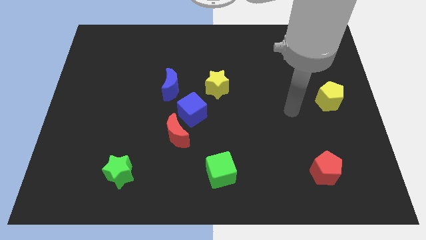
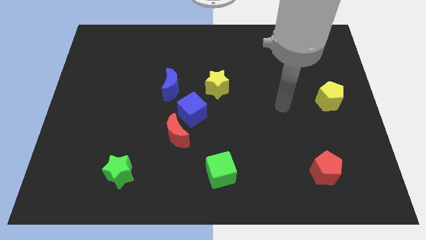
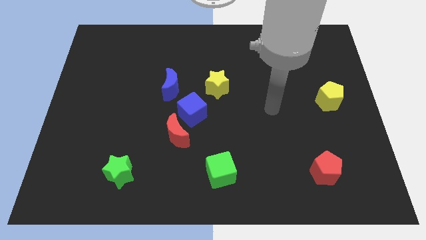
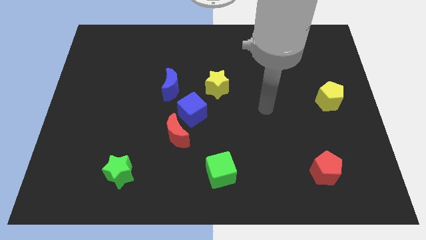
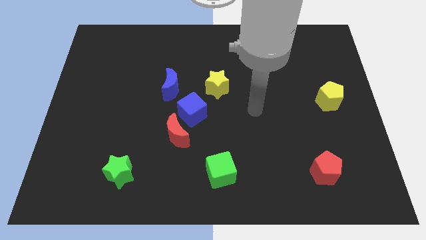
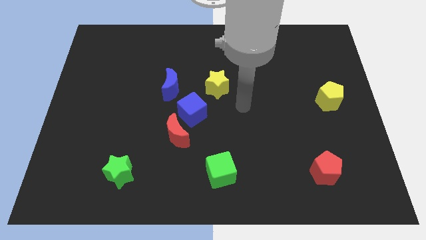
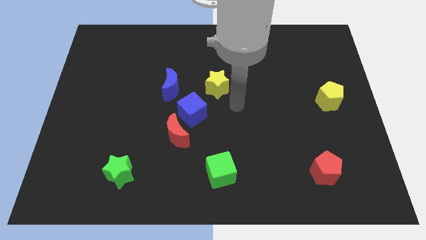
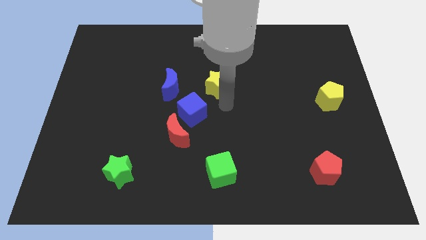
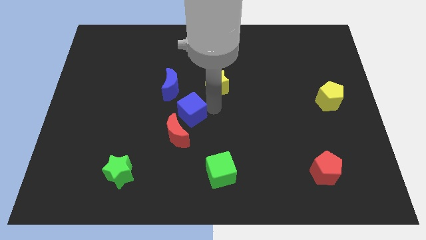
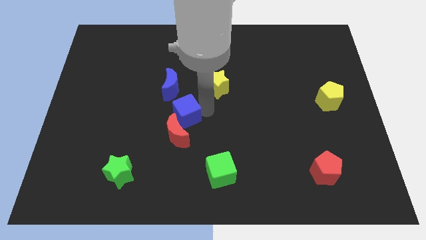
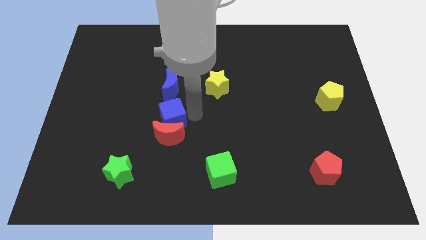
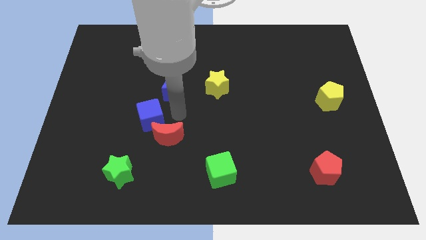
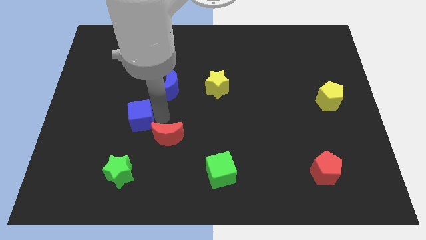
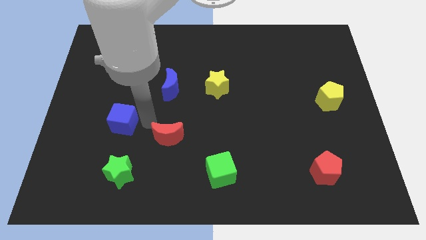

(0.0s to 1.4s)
move the red moon away from the blue cube

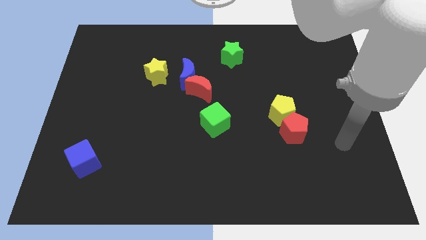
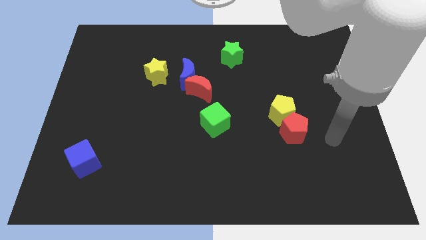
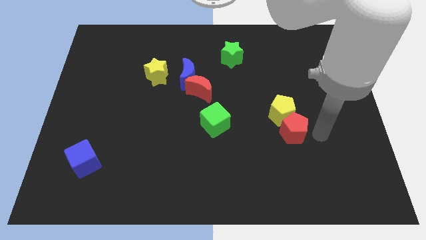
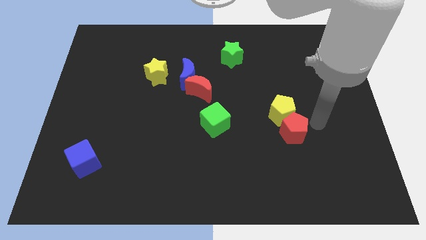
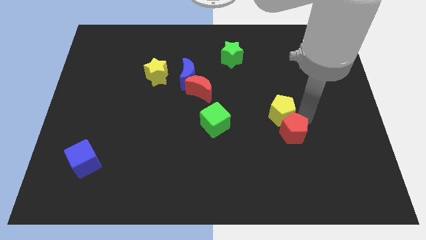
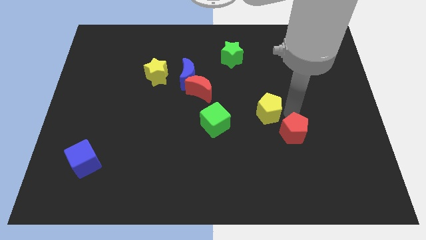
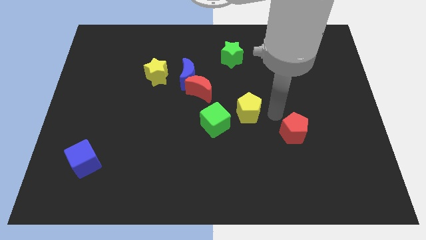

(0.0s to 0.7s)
move the red pentagon away from the yellow pentagon

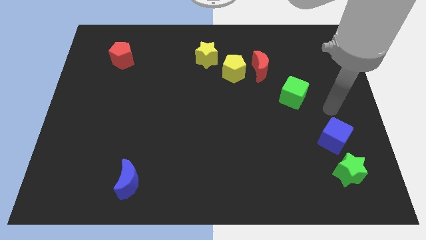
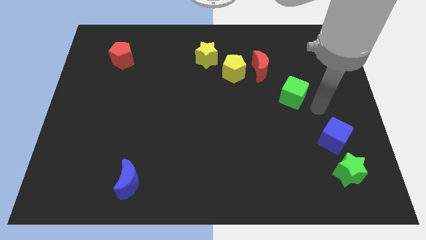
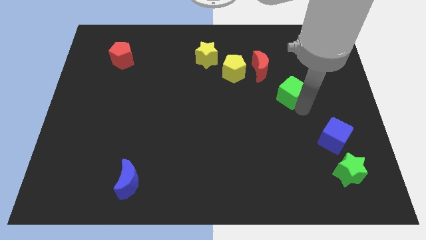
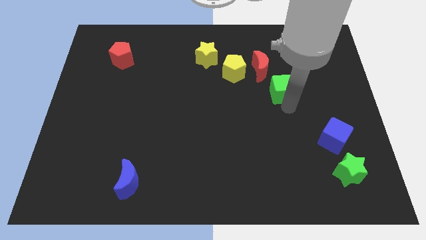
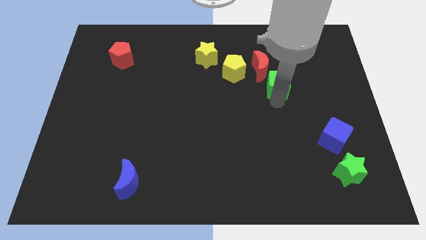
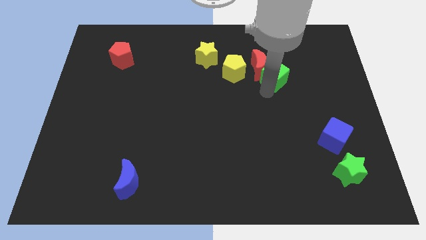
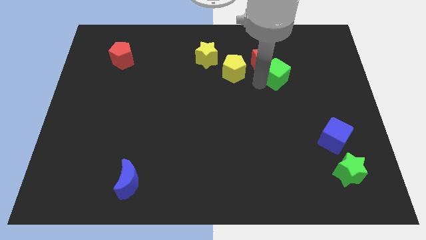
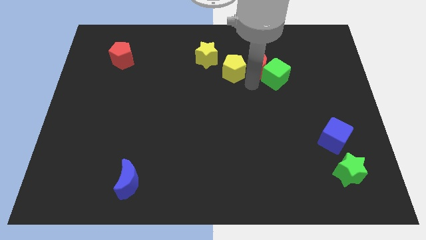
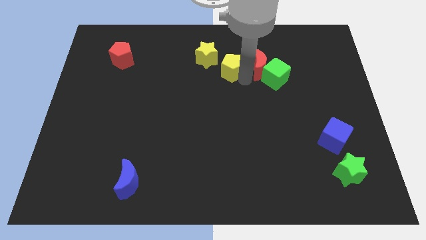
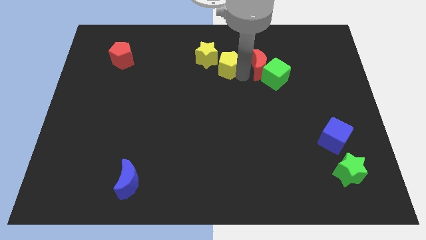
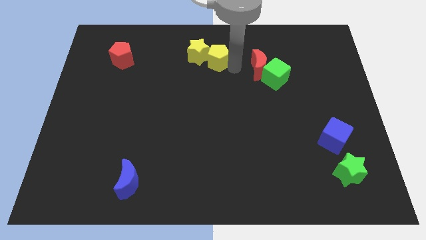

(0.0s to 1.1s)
move the red moon away from the yellow pentagon

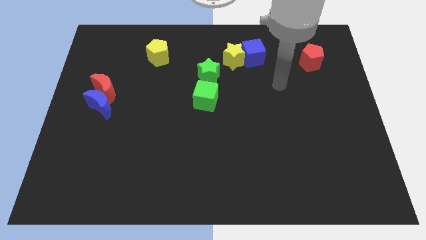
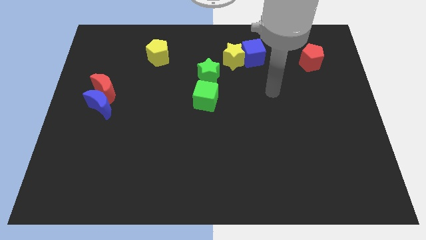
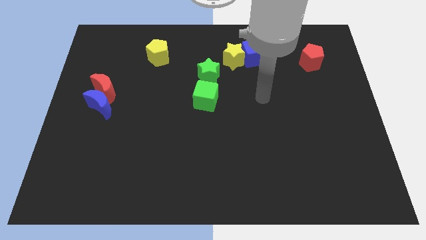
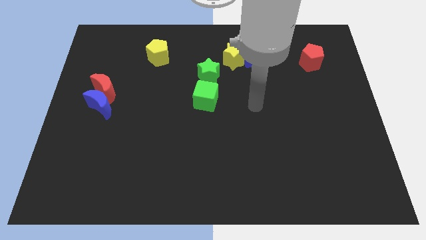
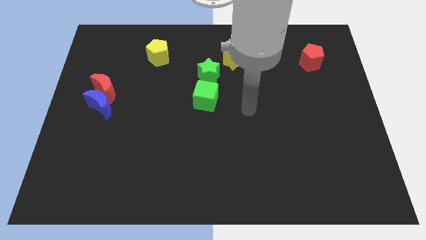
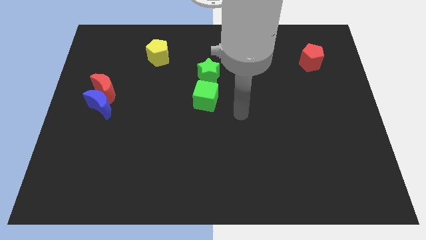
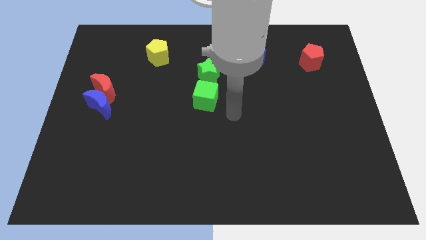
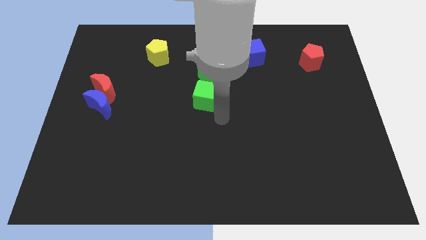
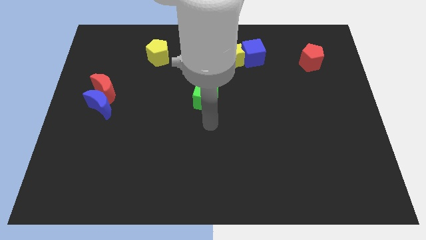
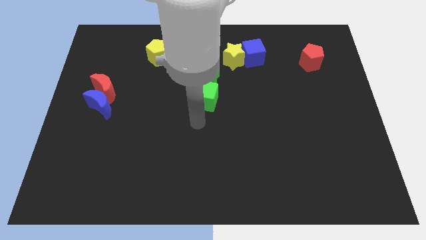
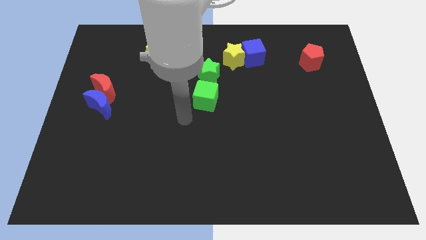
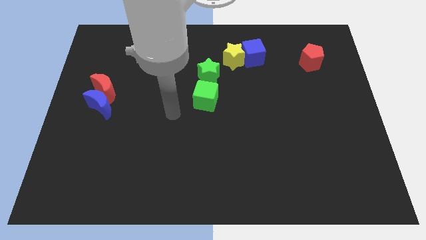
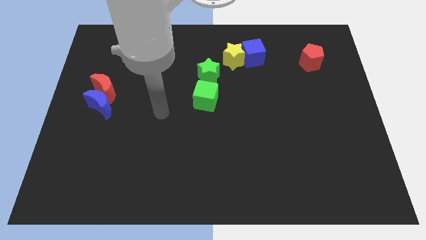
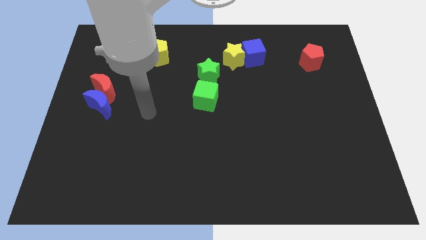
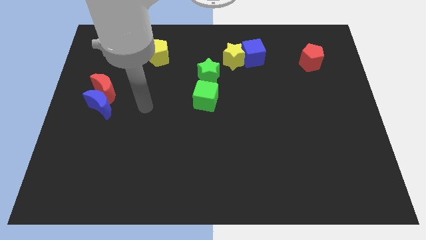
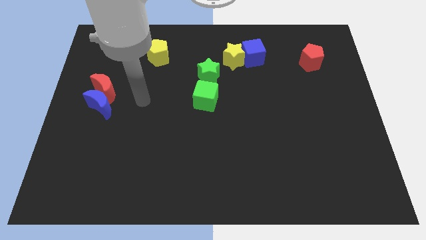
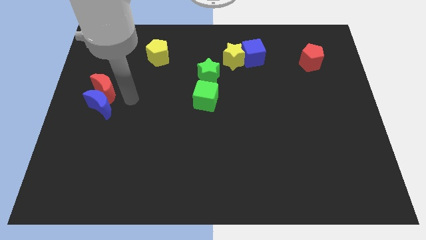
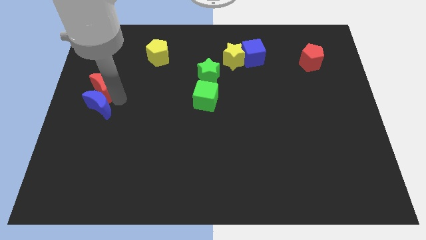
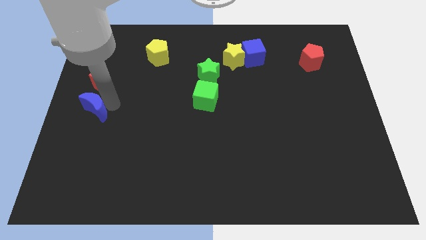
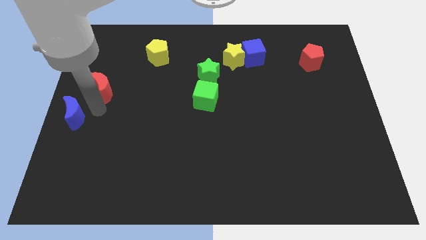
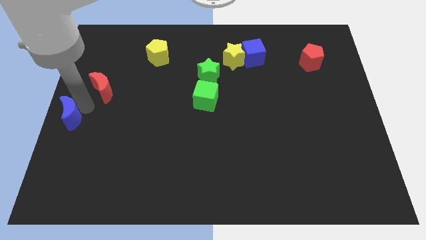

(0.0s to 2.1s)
pull the red moon apart from the blue moon

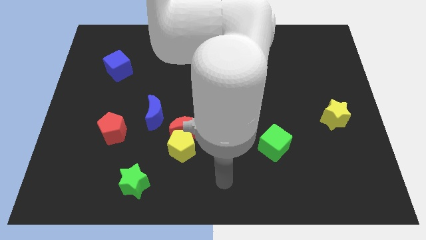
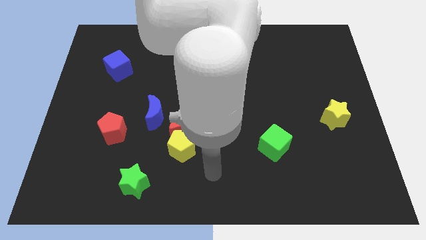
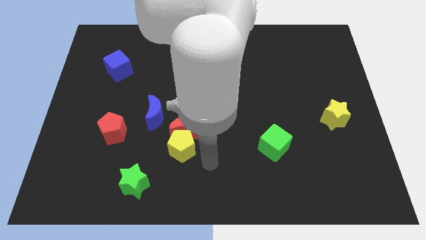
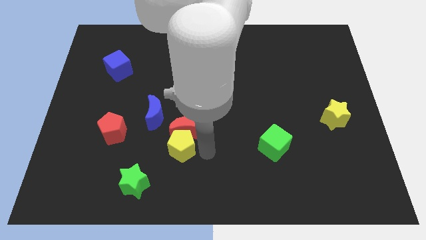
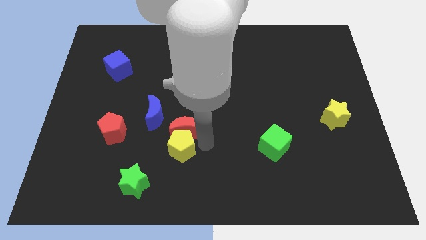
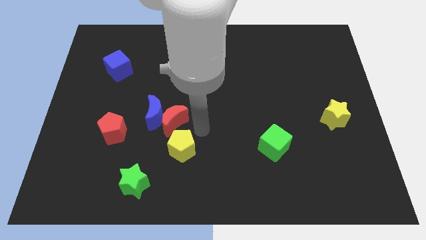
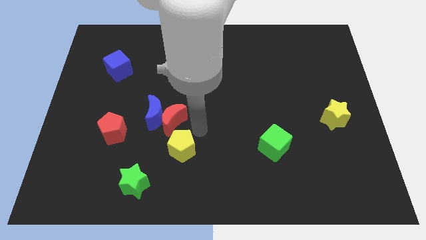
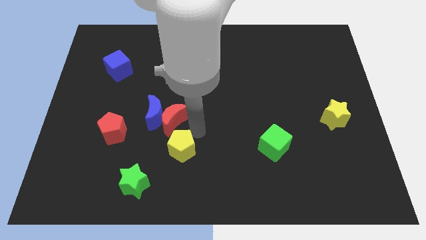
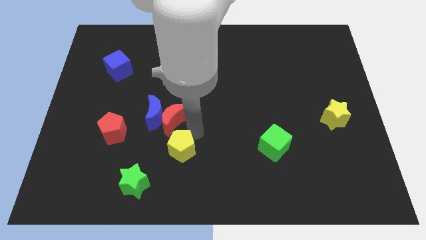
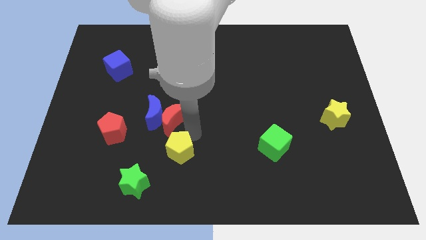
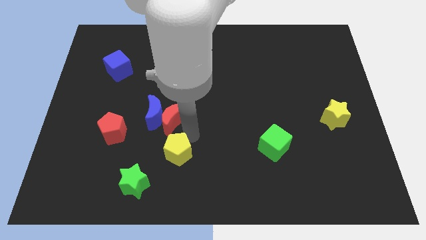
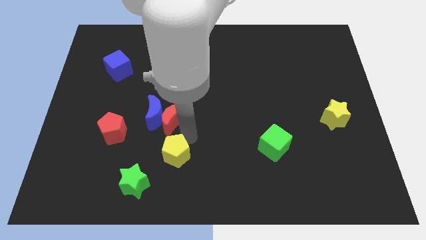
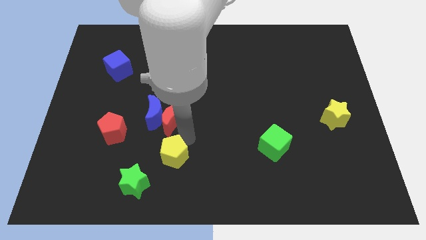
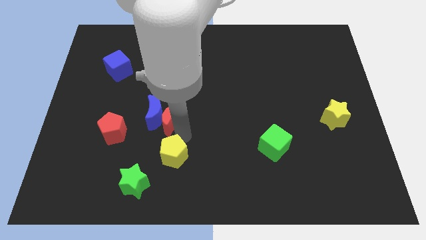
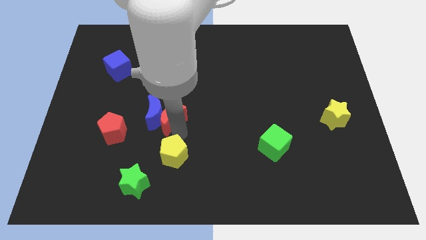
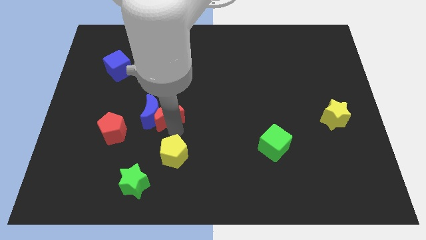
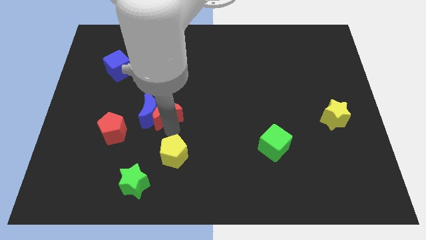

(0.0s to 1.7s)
separate the yellow pentagon from the red moon

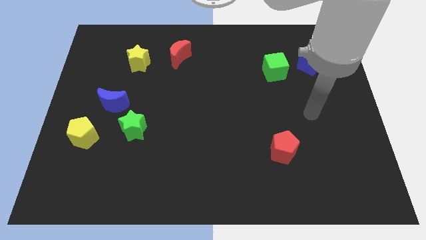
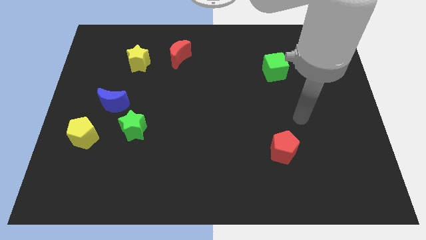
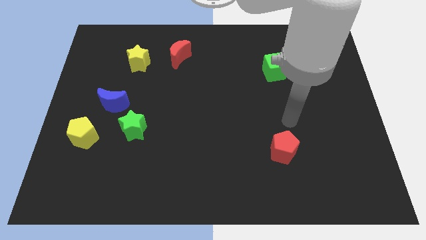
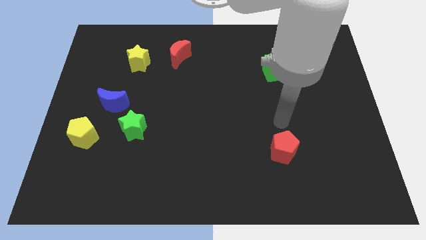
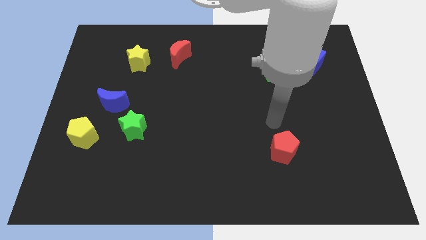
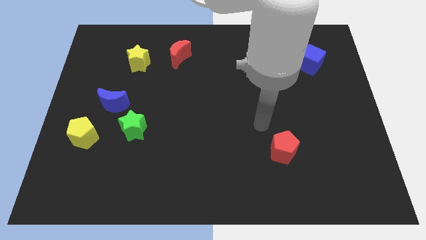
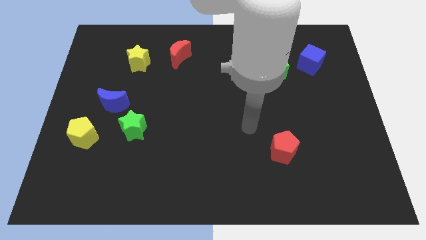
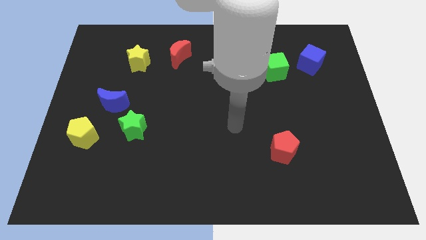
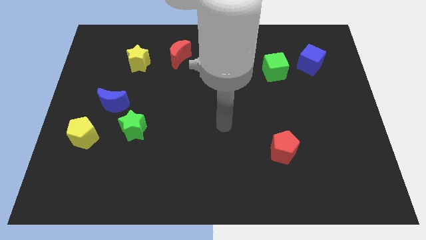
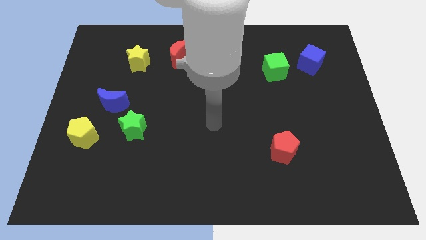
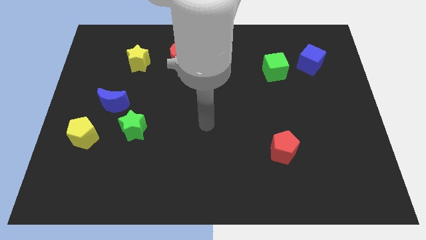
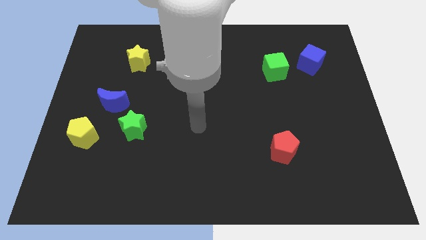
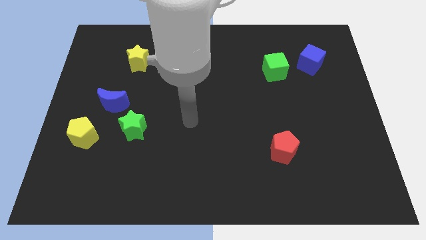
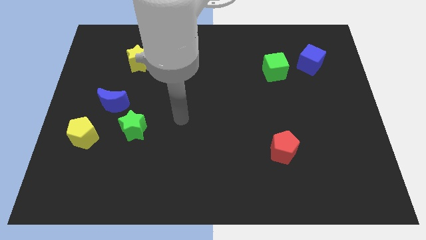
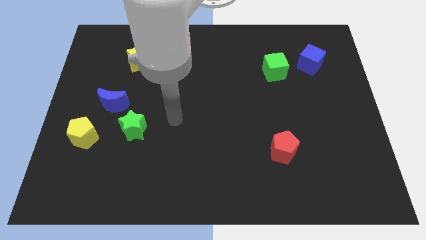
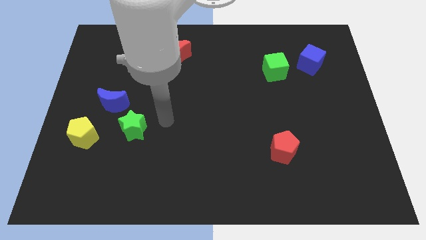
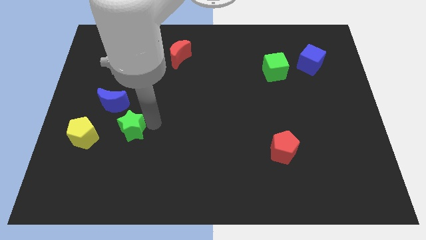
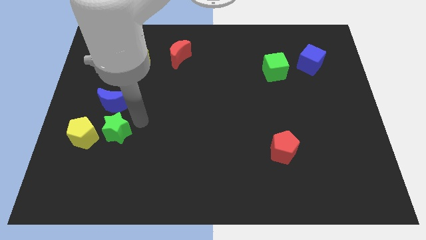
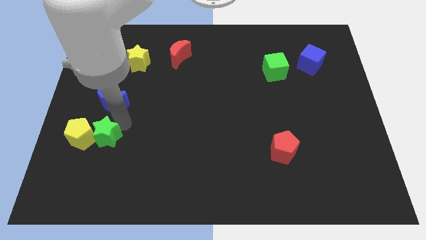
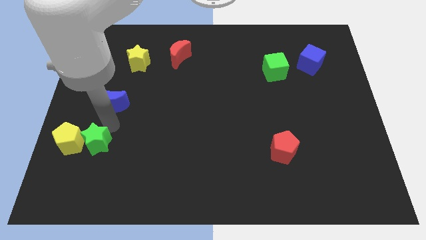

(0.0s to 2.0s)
pull the blue moon apart from the green star

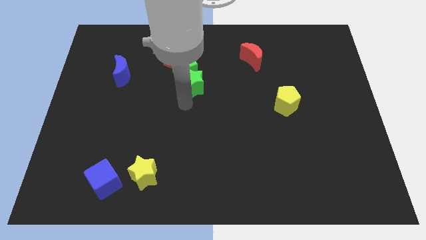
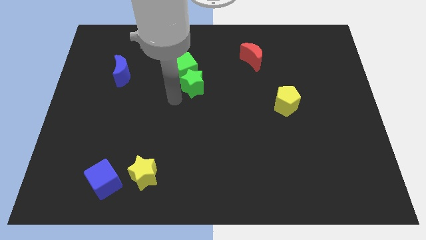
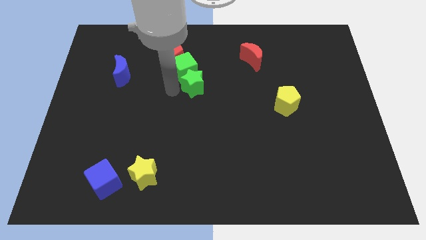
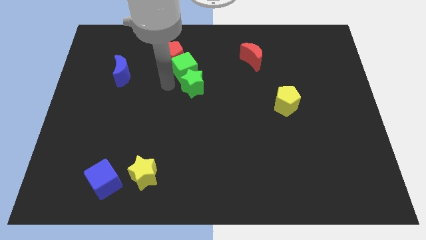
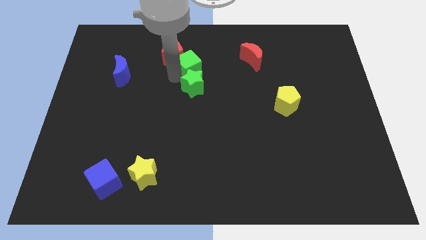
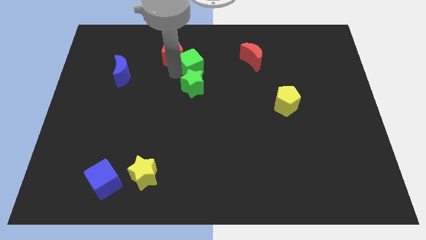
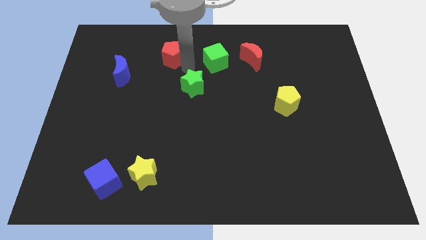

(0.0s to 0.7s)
pull the green star apart from the green cube
